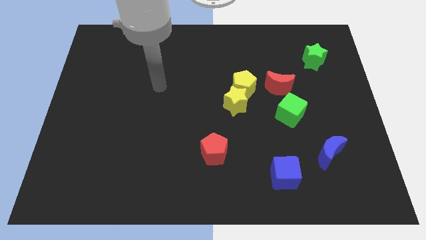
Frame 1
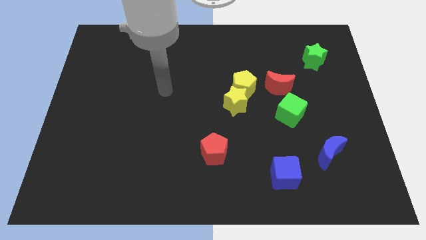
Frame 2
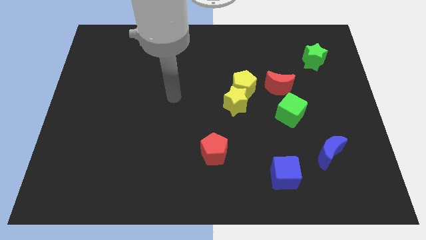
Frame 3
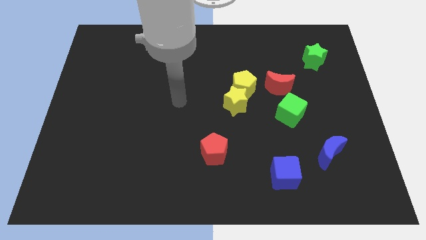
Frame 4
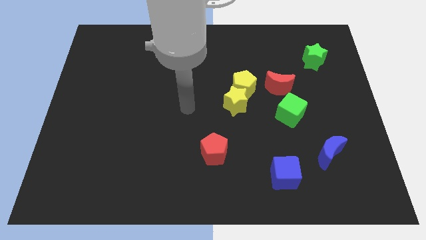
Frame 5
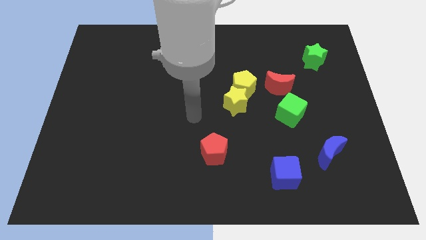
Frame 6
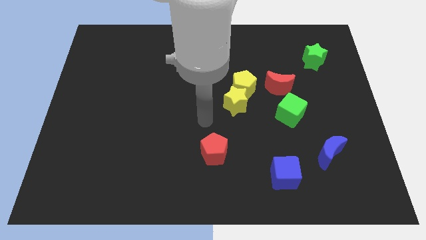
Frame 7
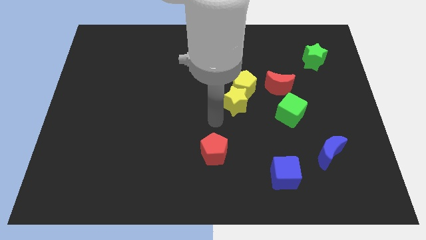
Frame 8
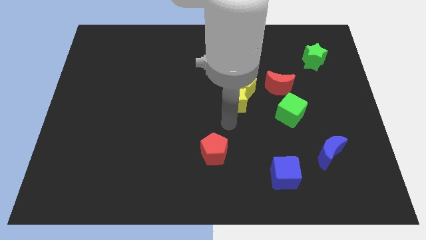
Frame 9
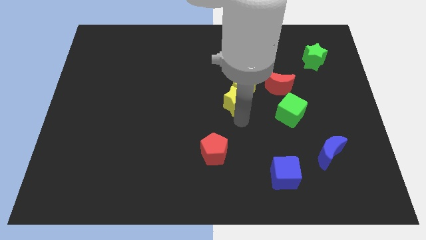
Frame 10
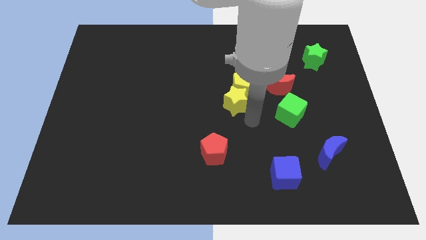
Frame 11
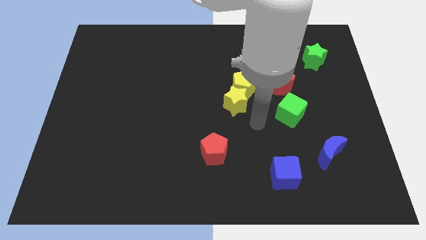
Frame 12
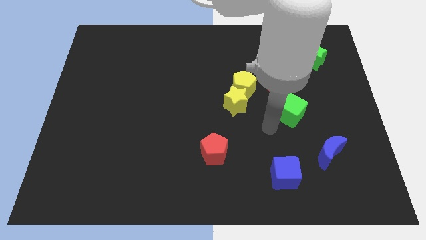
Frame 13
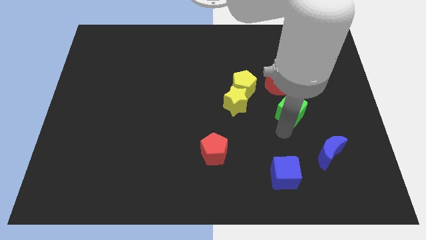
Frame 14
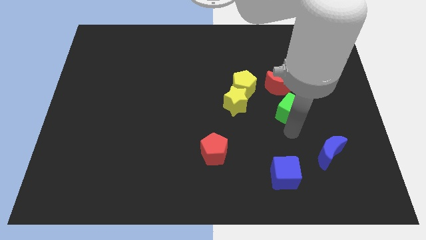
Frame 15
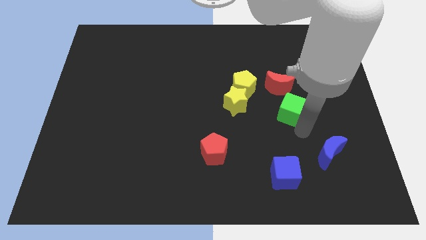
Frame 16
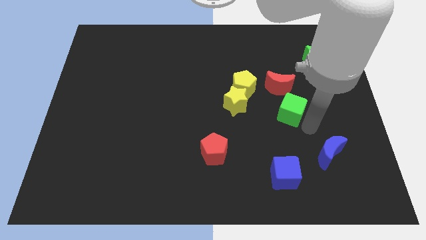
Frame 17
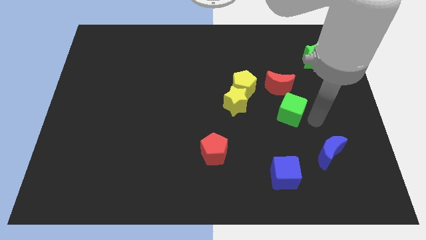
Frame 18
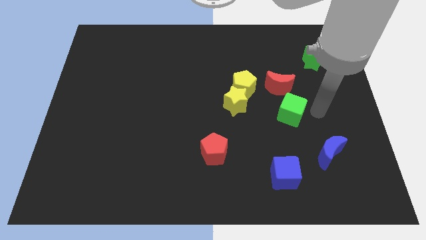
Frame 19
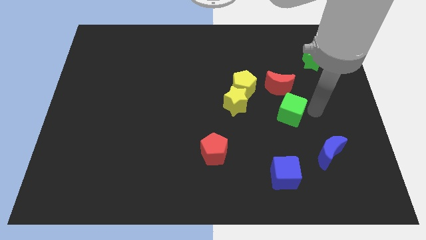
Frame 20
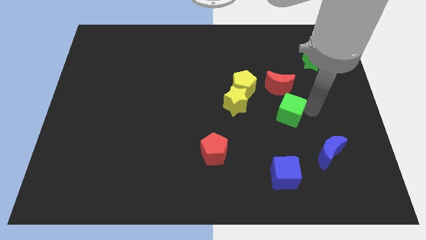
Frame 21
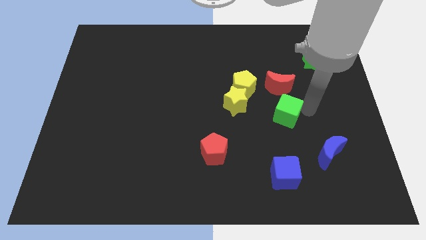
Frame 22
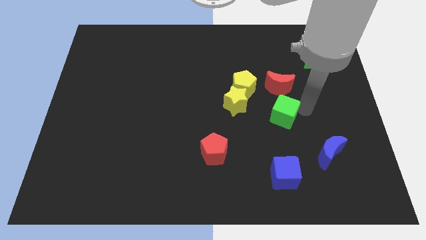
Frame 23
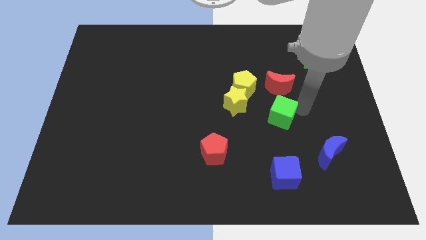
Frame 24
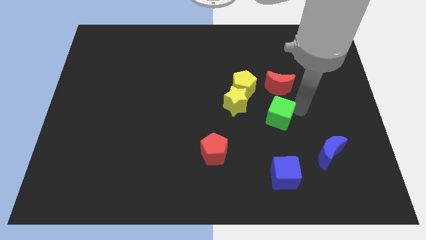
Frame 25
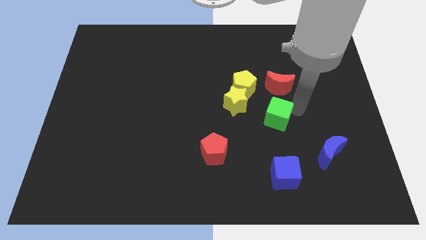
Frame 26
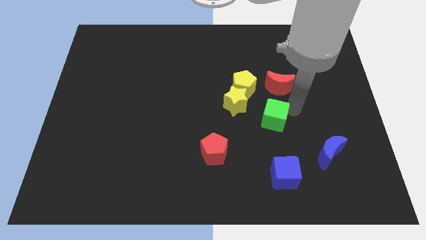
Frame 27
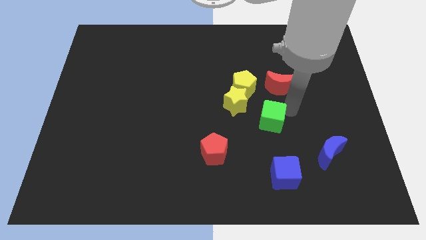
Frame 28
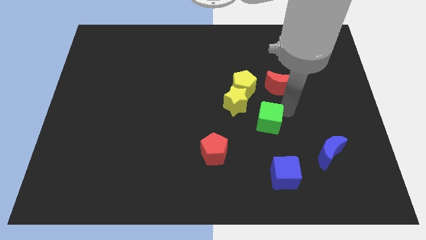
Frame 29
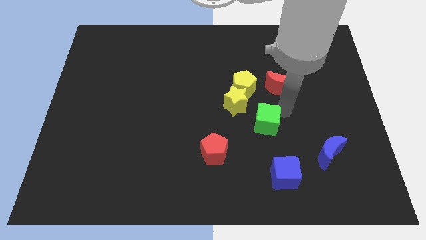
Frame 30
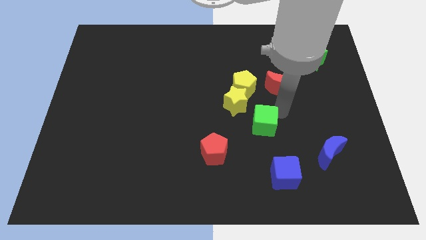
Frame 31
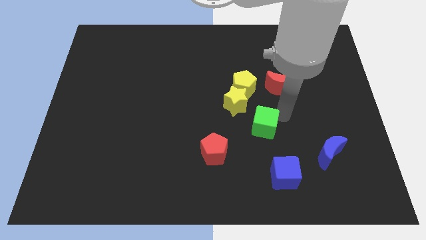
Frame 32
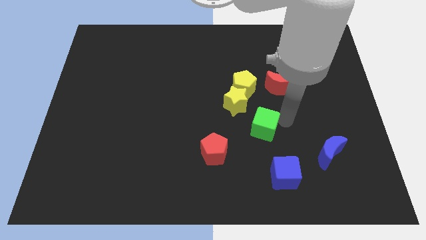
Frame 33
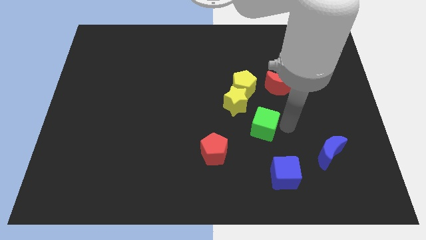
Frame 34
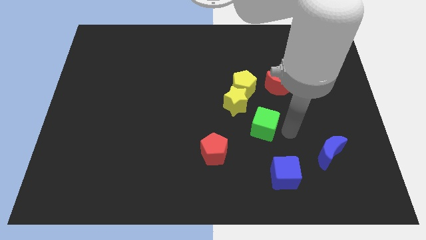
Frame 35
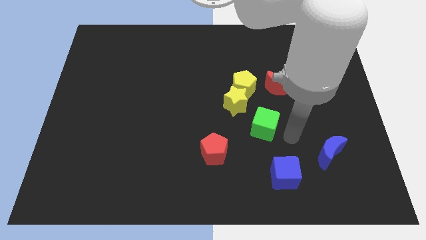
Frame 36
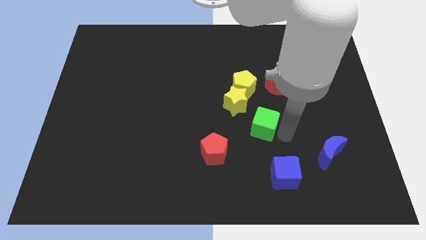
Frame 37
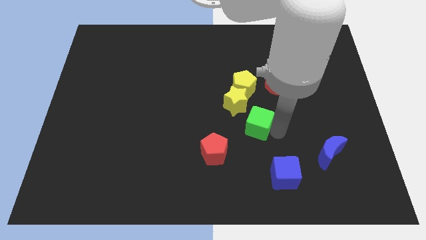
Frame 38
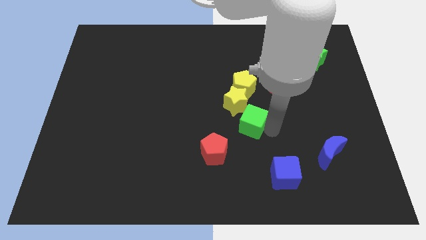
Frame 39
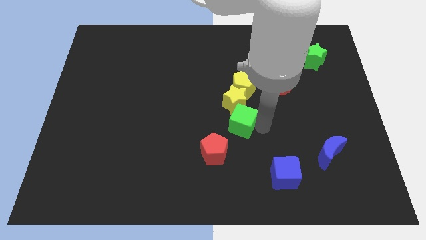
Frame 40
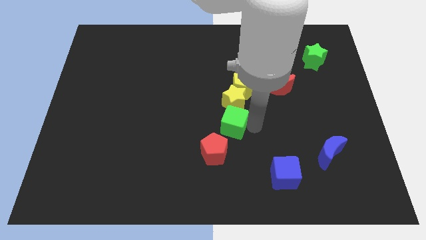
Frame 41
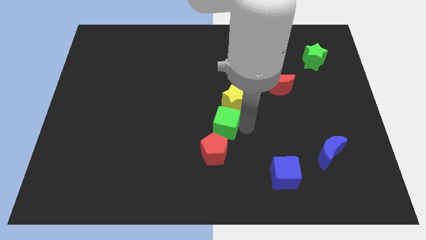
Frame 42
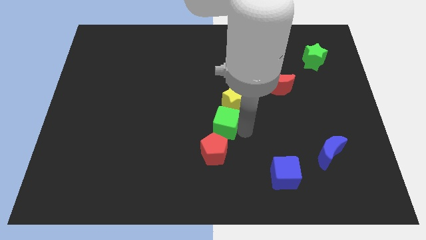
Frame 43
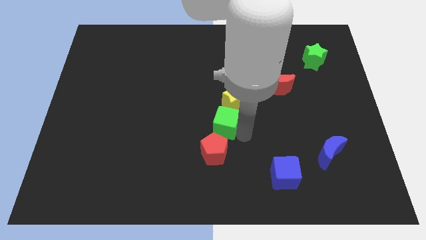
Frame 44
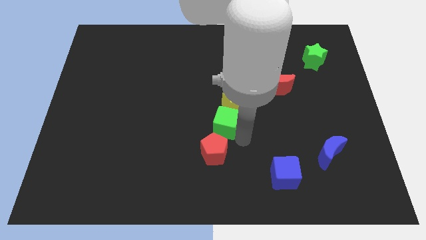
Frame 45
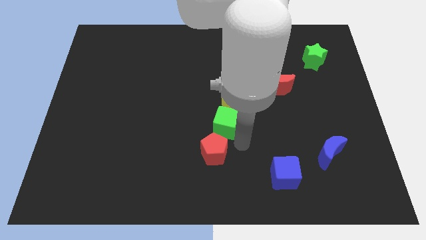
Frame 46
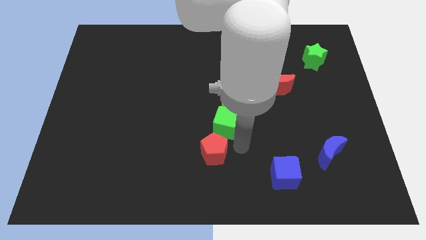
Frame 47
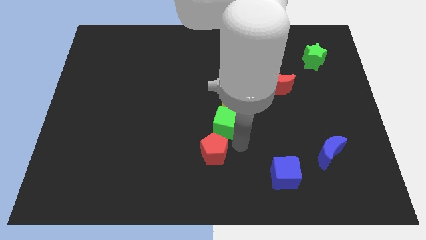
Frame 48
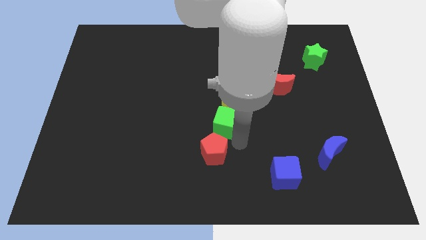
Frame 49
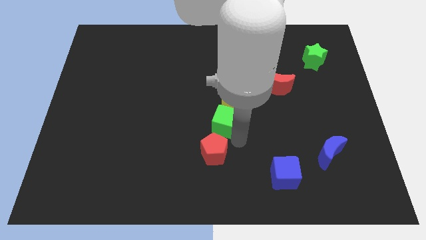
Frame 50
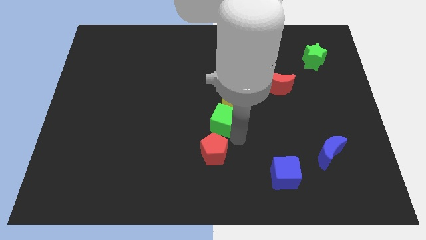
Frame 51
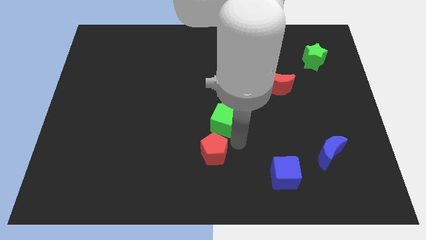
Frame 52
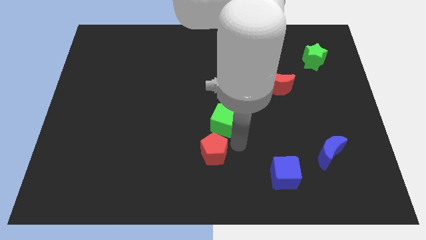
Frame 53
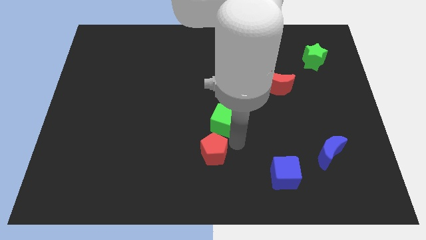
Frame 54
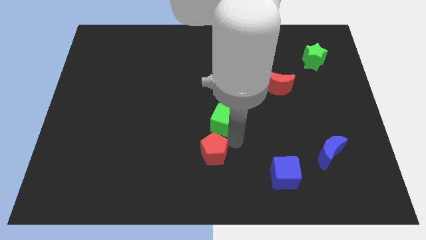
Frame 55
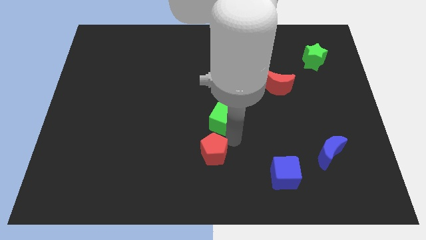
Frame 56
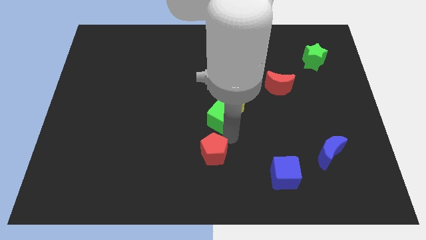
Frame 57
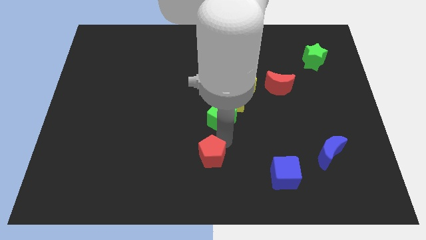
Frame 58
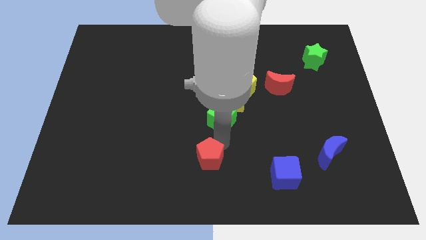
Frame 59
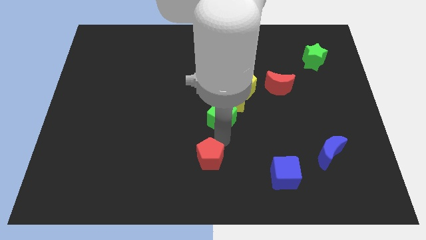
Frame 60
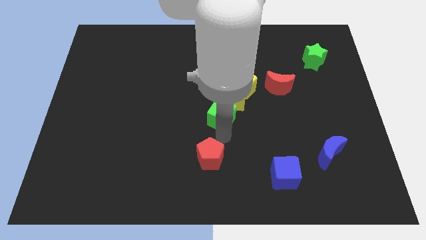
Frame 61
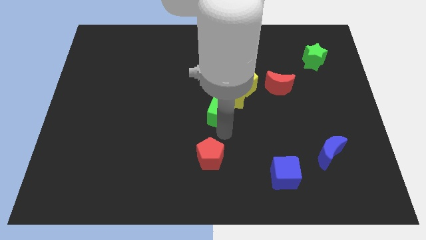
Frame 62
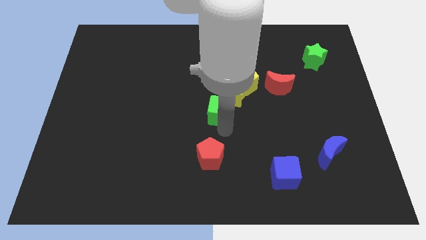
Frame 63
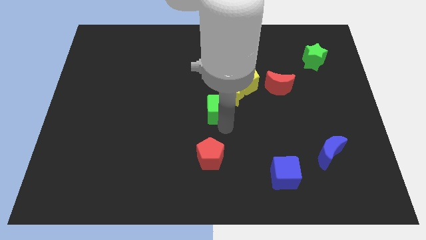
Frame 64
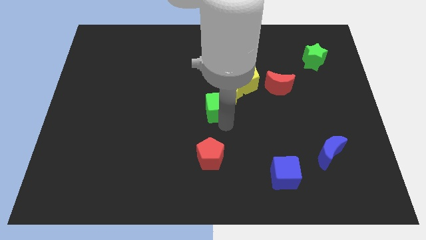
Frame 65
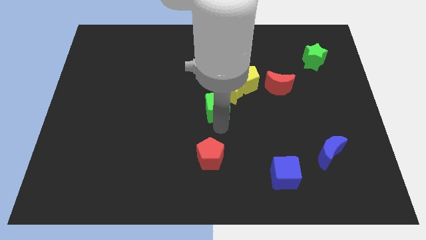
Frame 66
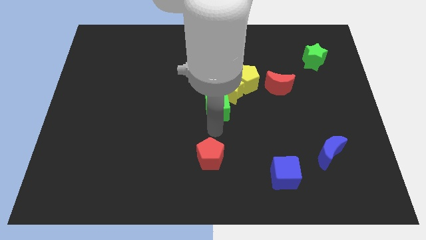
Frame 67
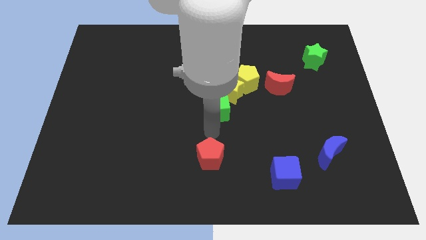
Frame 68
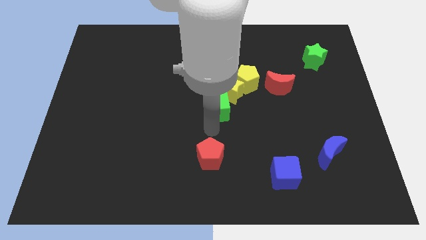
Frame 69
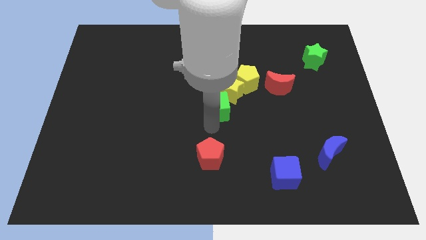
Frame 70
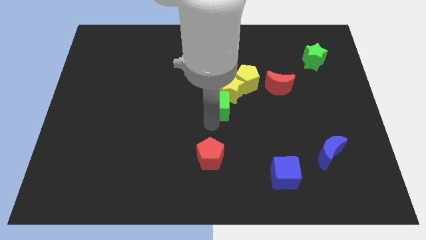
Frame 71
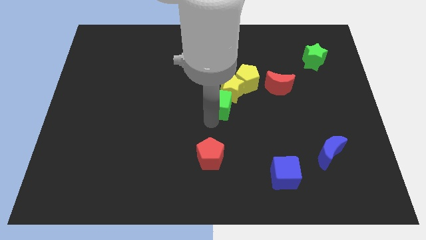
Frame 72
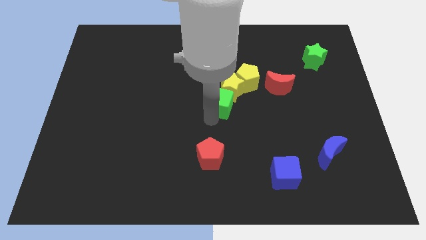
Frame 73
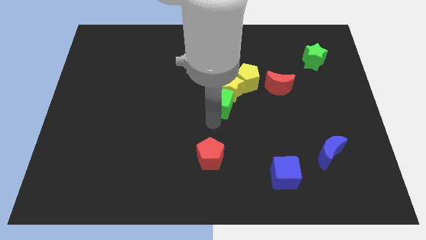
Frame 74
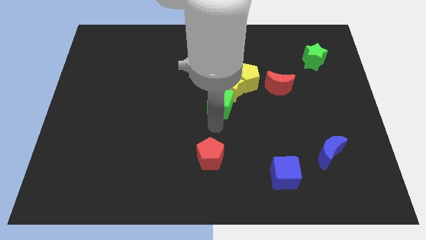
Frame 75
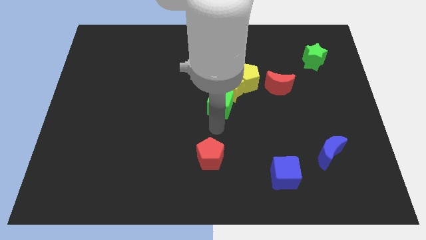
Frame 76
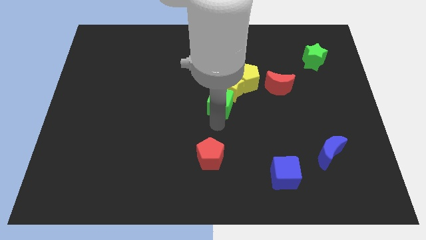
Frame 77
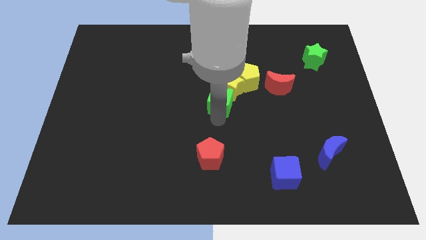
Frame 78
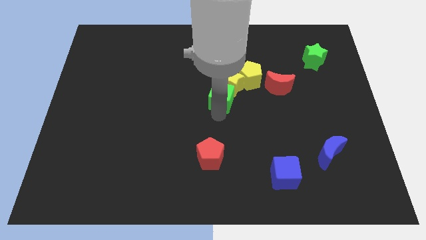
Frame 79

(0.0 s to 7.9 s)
put the green cube to the left side of the red moon
